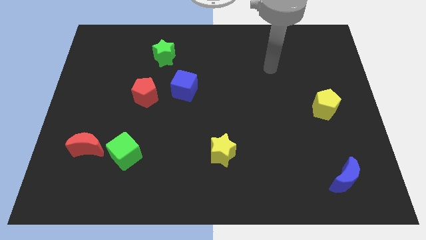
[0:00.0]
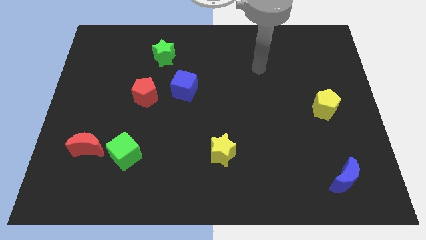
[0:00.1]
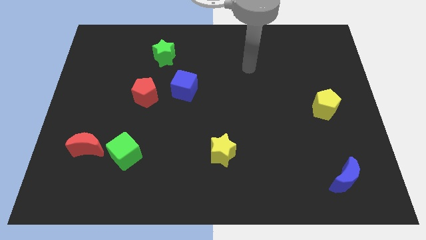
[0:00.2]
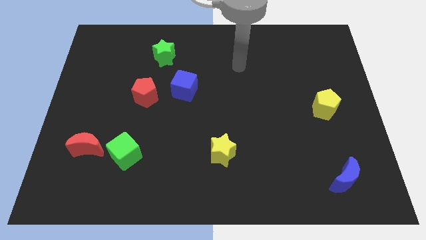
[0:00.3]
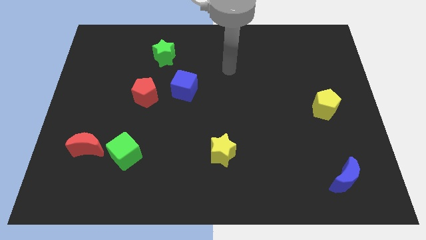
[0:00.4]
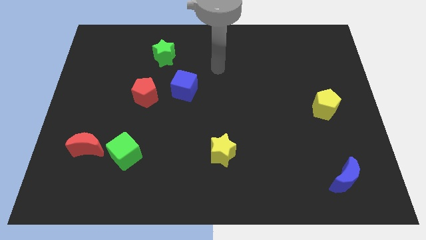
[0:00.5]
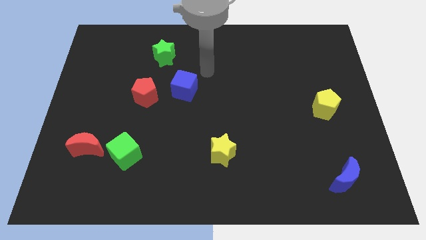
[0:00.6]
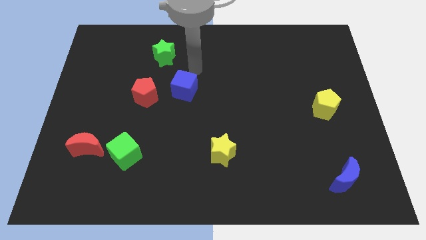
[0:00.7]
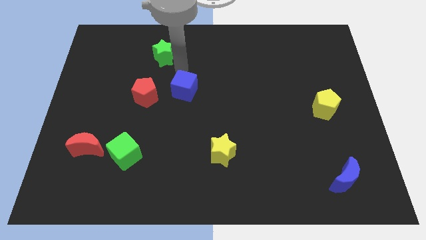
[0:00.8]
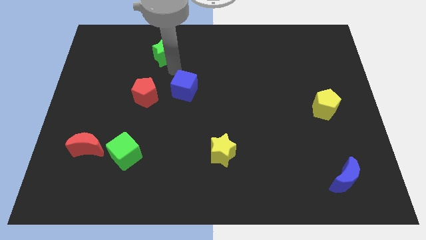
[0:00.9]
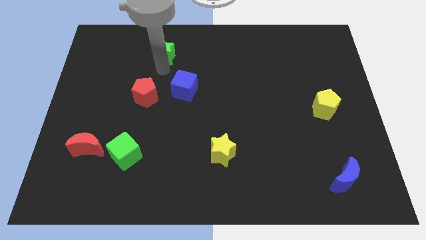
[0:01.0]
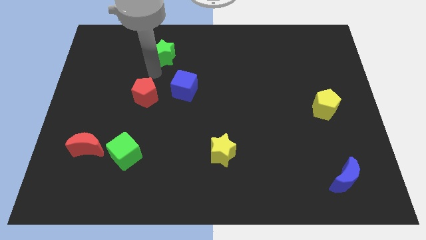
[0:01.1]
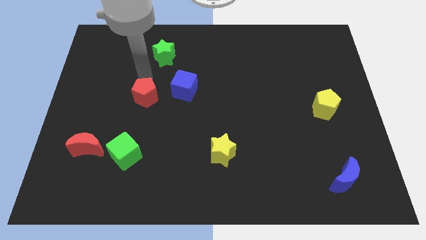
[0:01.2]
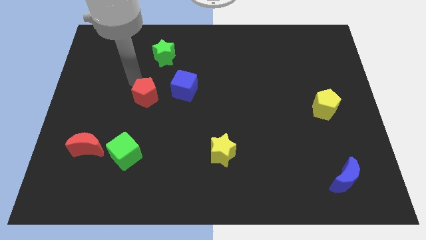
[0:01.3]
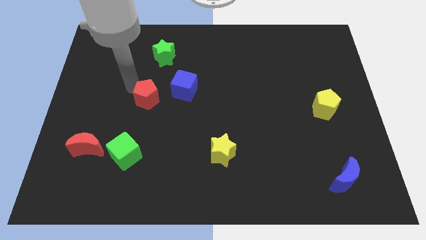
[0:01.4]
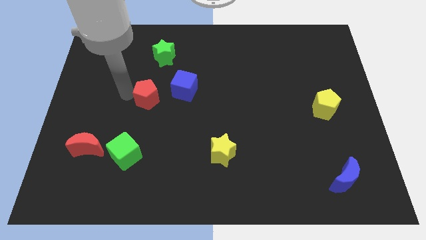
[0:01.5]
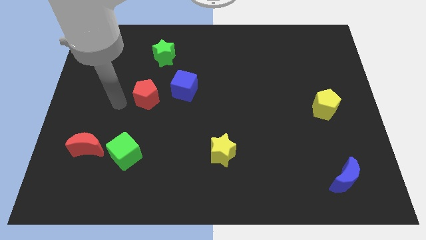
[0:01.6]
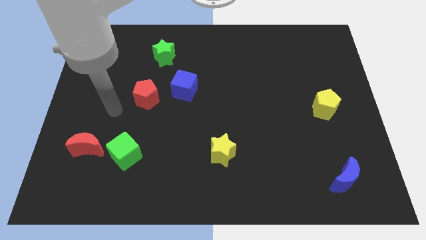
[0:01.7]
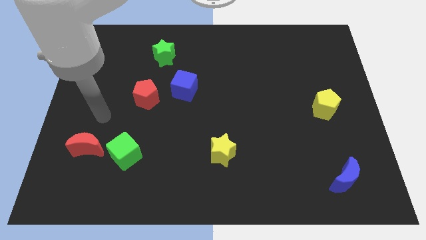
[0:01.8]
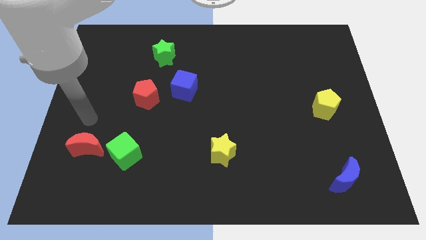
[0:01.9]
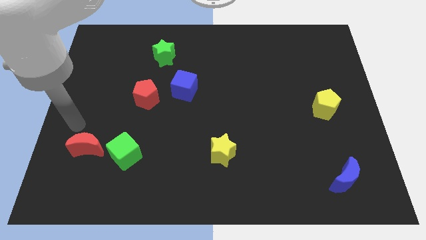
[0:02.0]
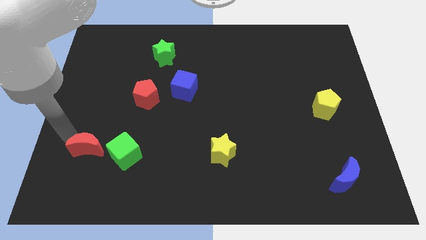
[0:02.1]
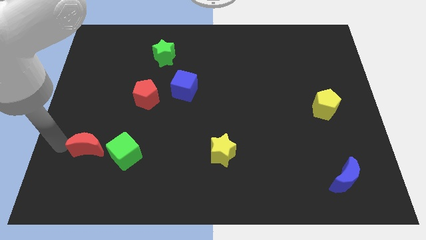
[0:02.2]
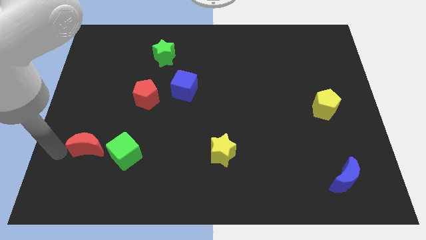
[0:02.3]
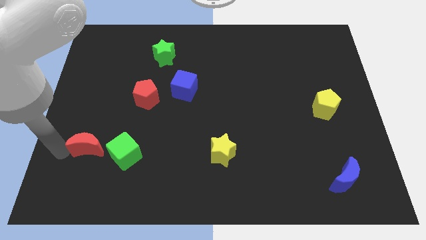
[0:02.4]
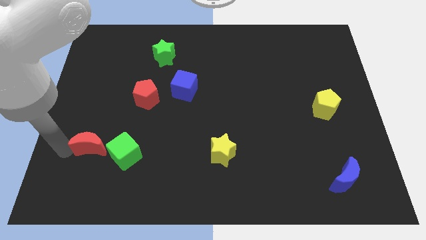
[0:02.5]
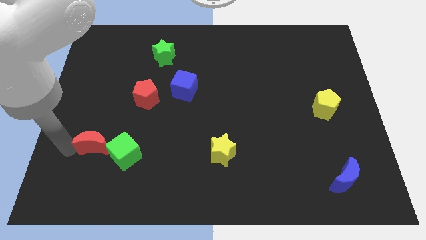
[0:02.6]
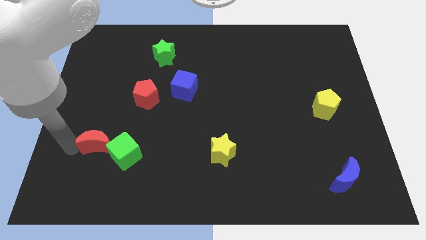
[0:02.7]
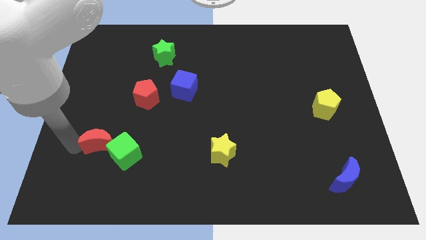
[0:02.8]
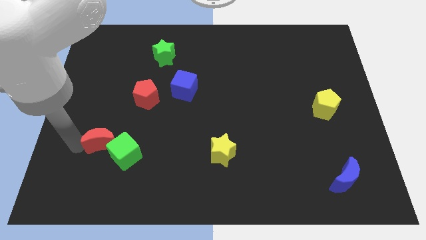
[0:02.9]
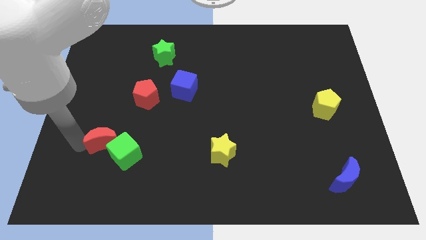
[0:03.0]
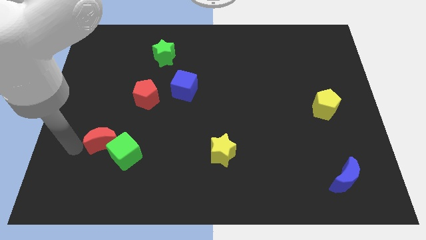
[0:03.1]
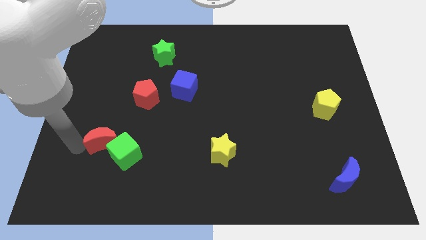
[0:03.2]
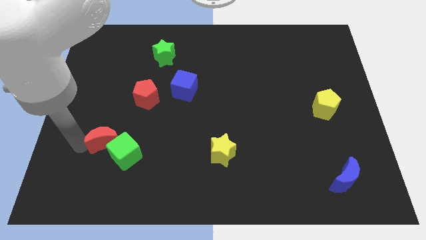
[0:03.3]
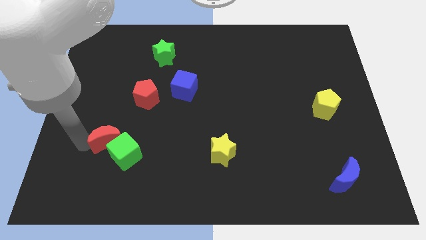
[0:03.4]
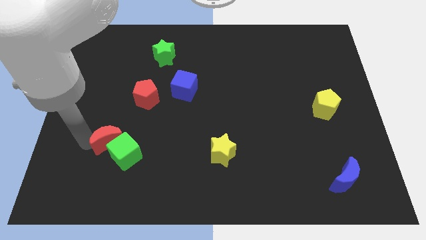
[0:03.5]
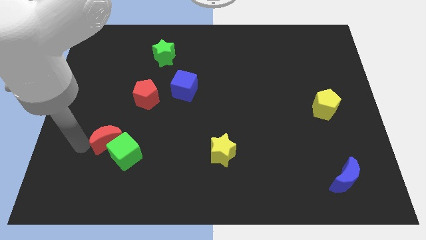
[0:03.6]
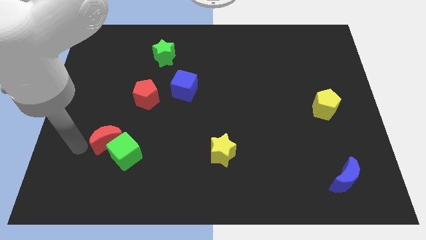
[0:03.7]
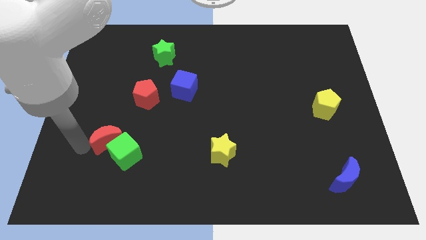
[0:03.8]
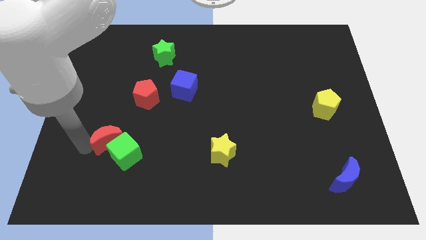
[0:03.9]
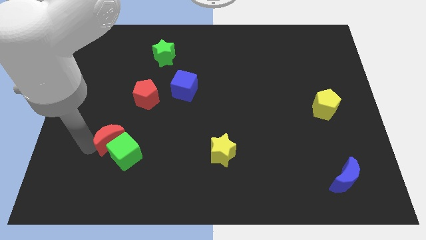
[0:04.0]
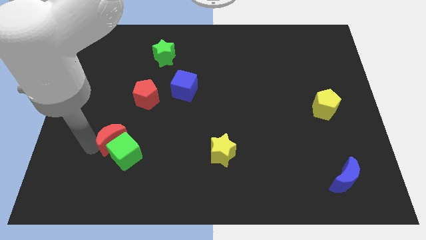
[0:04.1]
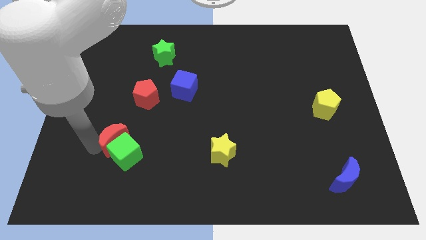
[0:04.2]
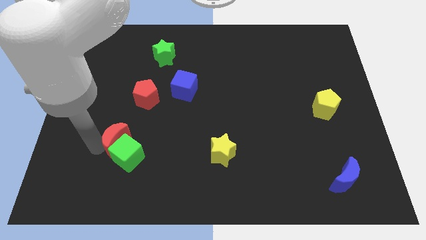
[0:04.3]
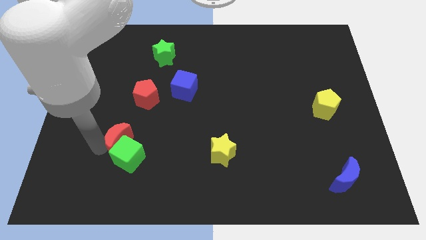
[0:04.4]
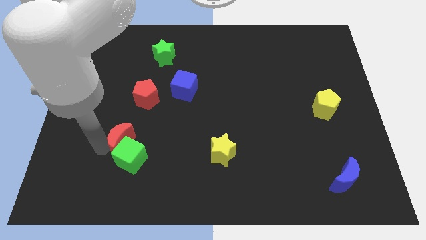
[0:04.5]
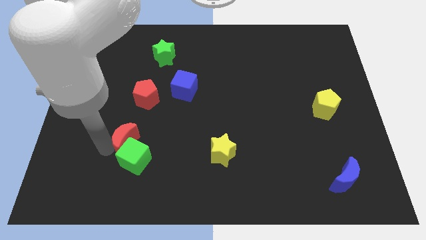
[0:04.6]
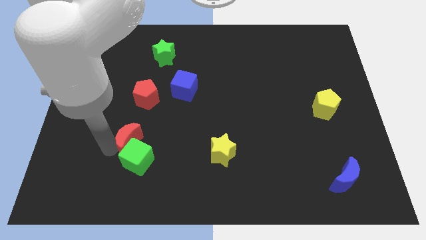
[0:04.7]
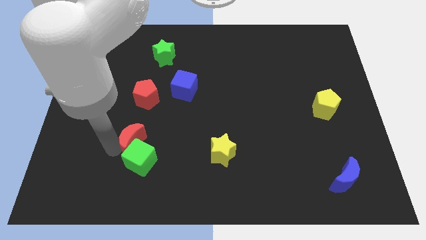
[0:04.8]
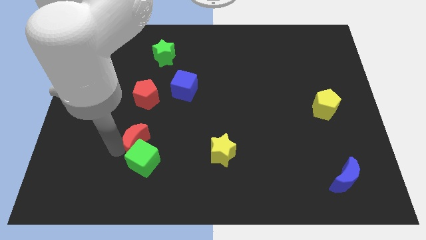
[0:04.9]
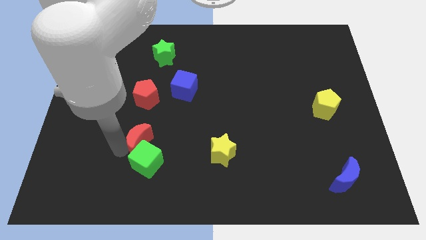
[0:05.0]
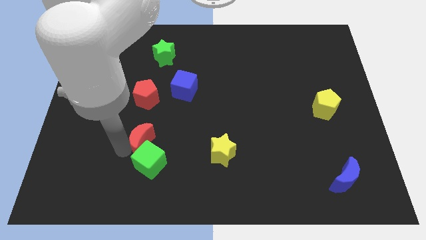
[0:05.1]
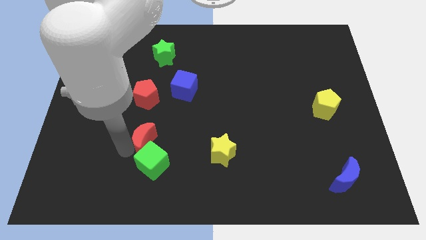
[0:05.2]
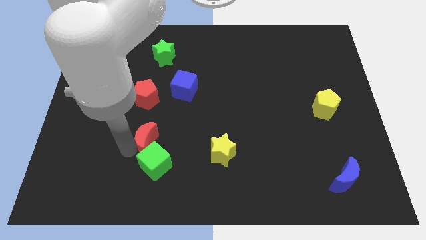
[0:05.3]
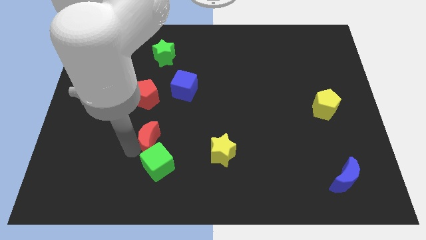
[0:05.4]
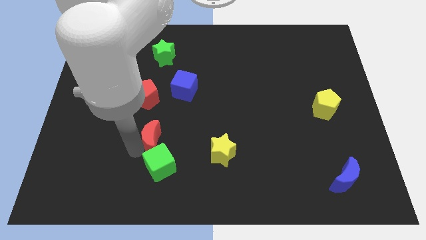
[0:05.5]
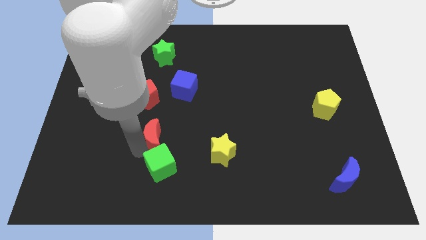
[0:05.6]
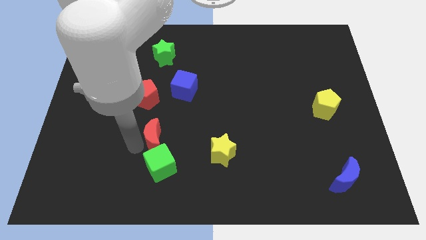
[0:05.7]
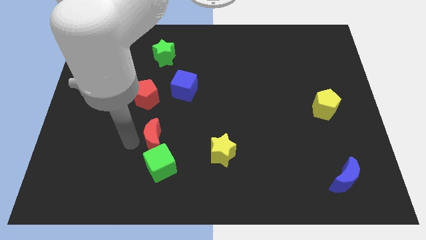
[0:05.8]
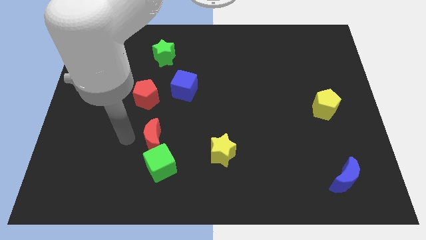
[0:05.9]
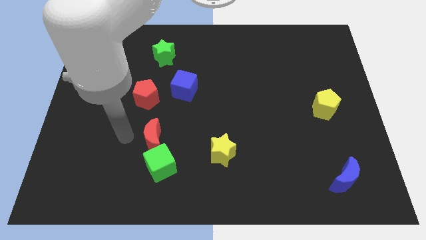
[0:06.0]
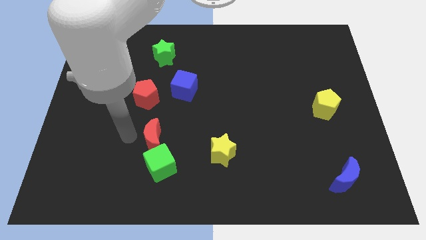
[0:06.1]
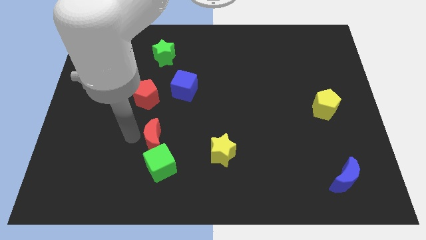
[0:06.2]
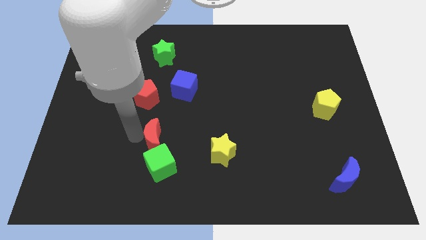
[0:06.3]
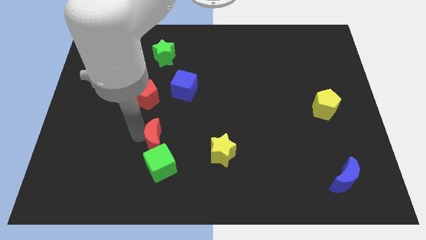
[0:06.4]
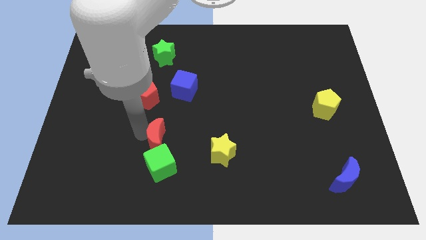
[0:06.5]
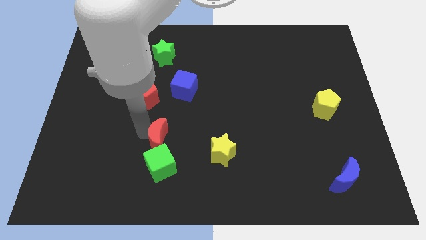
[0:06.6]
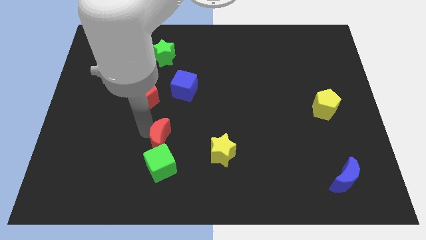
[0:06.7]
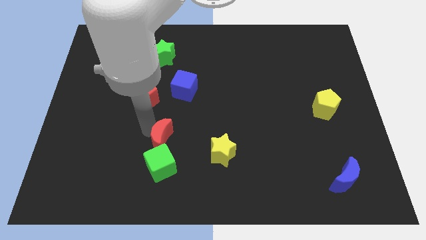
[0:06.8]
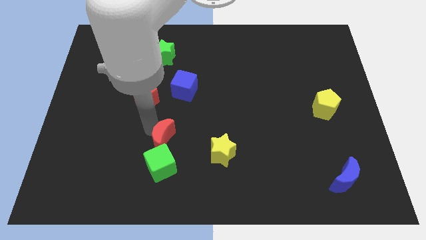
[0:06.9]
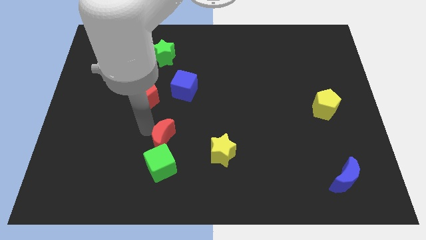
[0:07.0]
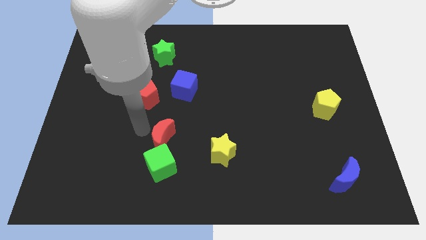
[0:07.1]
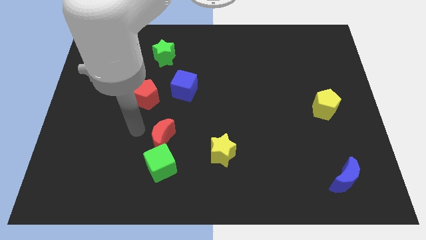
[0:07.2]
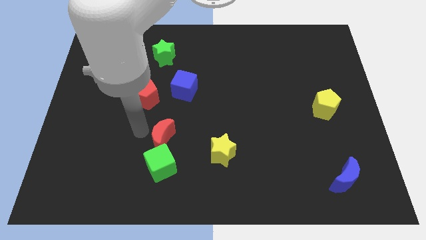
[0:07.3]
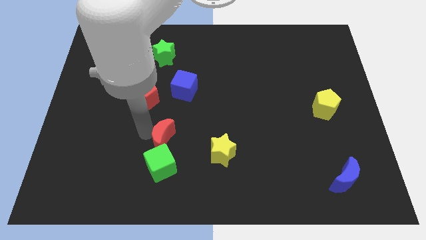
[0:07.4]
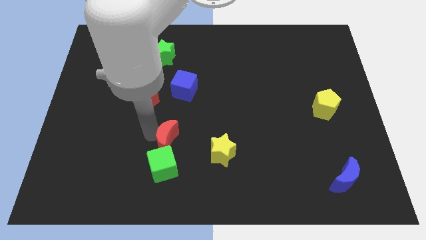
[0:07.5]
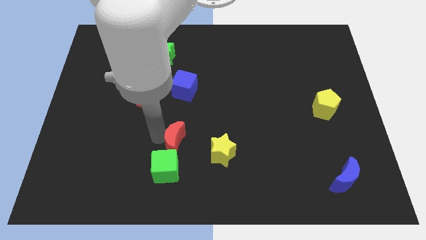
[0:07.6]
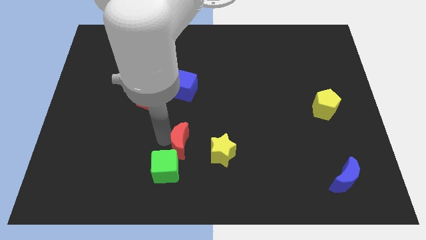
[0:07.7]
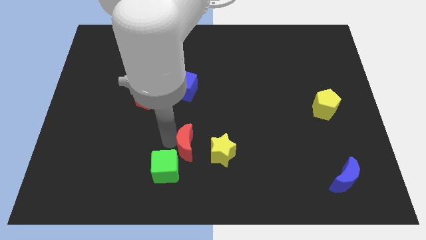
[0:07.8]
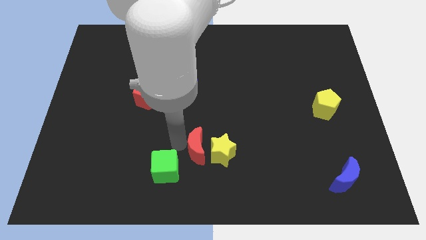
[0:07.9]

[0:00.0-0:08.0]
put the red moon to the yellow star
